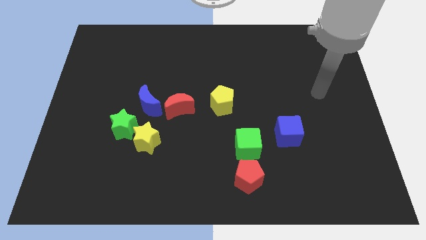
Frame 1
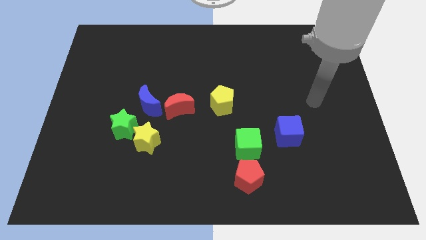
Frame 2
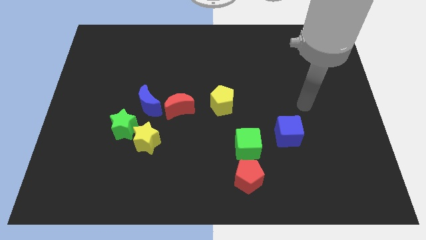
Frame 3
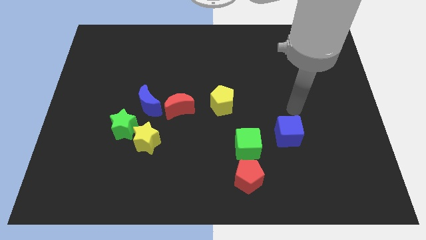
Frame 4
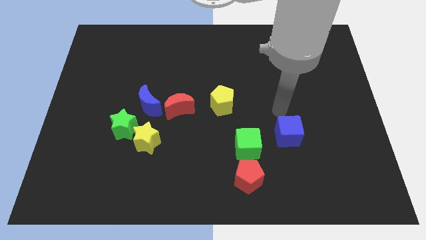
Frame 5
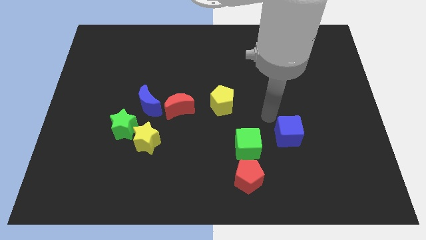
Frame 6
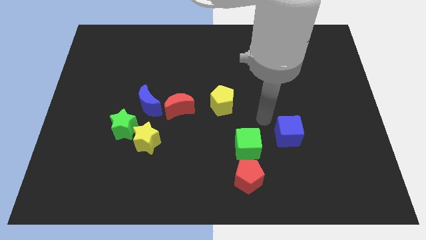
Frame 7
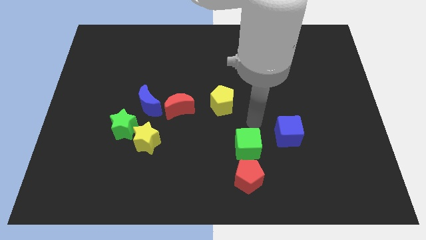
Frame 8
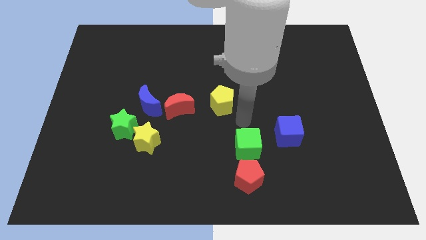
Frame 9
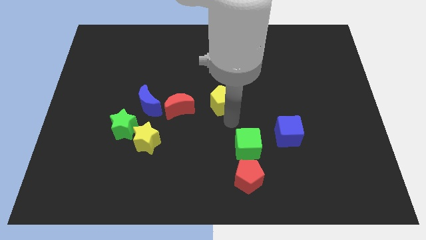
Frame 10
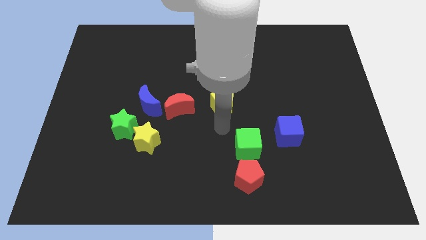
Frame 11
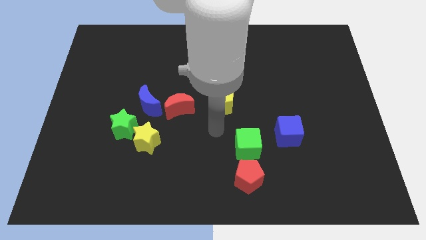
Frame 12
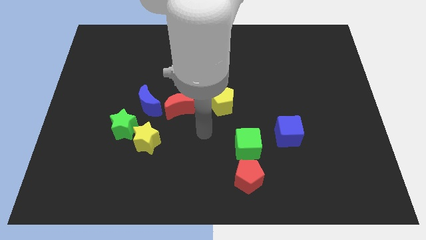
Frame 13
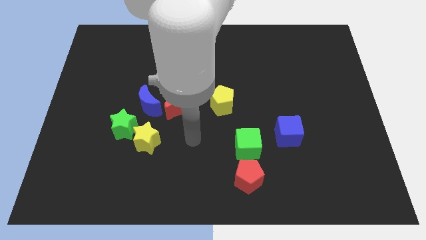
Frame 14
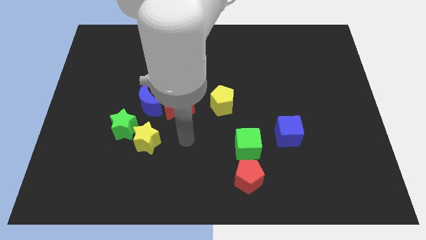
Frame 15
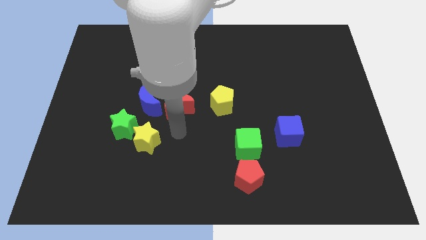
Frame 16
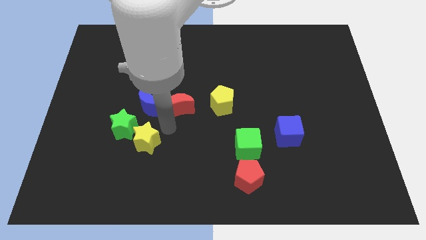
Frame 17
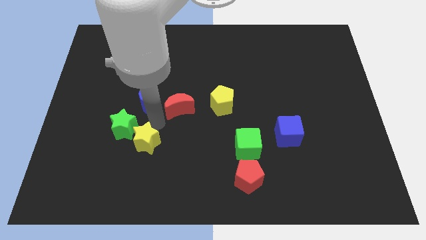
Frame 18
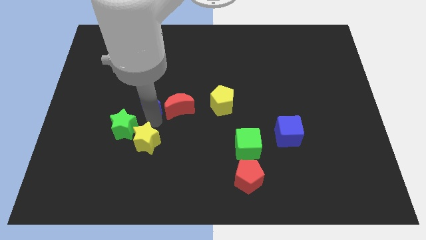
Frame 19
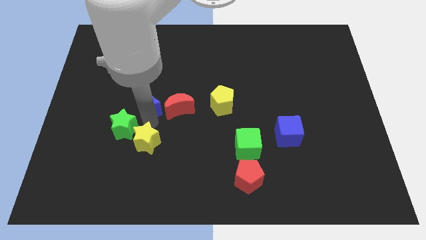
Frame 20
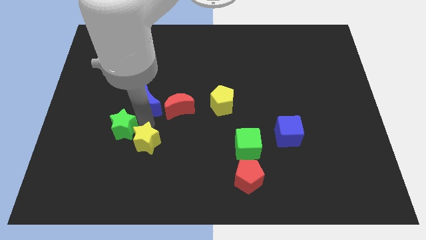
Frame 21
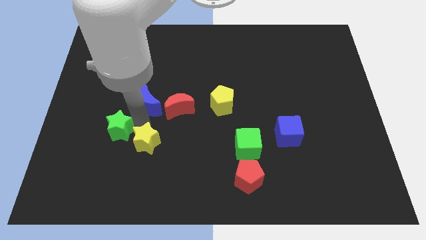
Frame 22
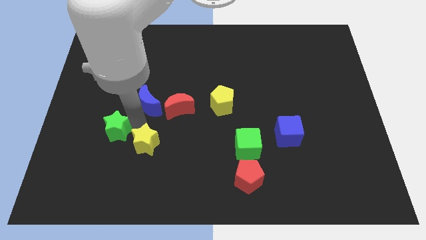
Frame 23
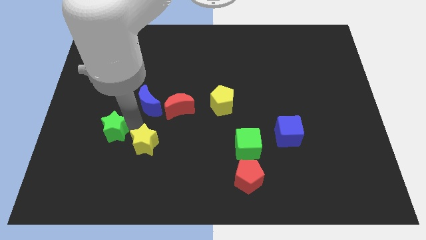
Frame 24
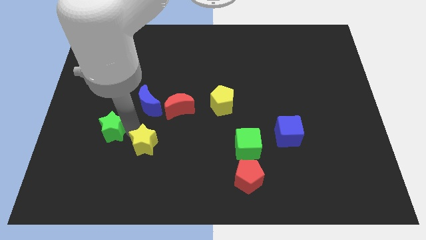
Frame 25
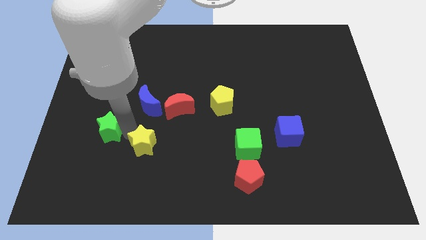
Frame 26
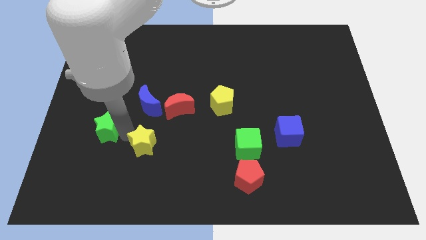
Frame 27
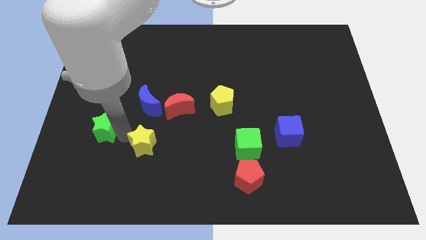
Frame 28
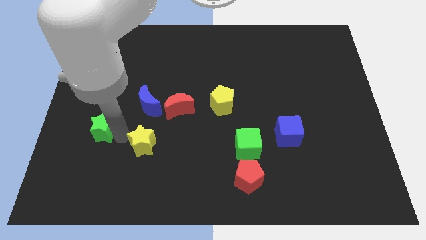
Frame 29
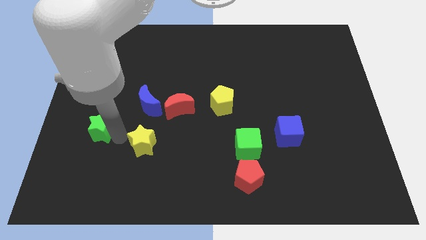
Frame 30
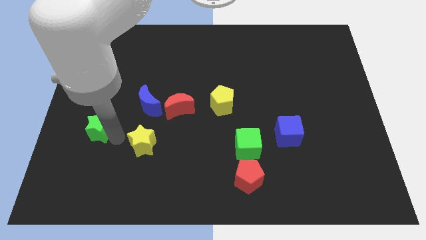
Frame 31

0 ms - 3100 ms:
pull the green star apart from the yellow star and blue moon

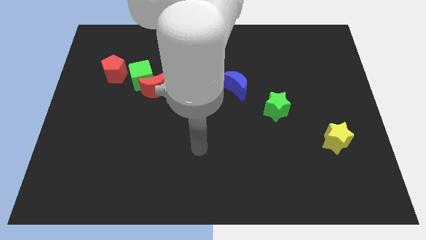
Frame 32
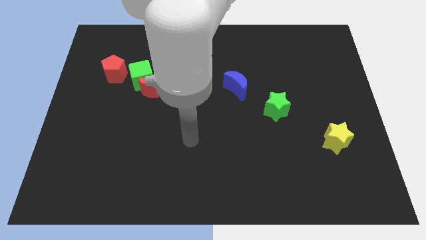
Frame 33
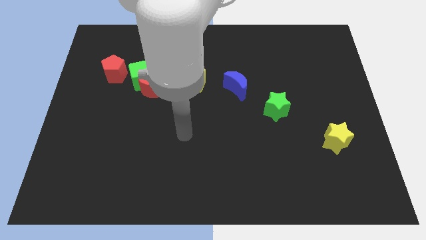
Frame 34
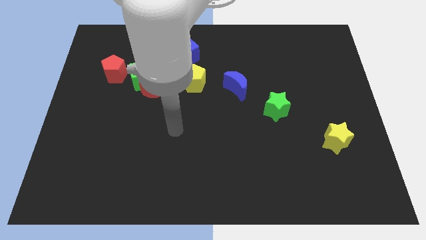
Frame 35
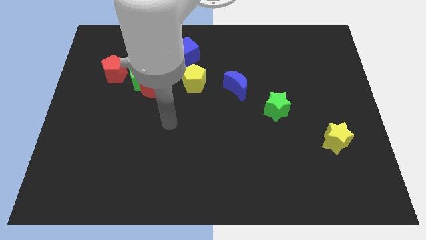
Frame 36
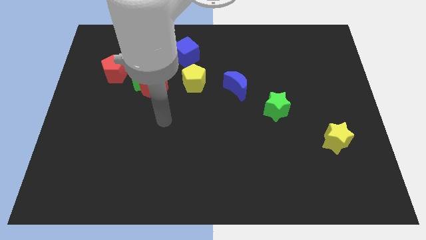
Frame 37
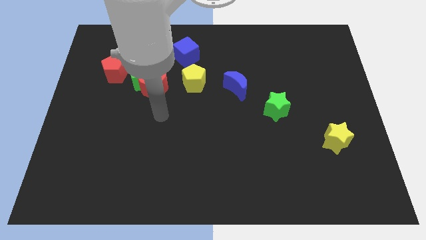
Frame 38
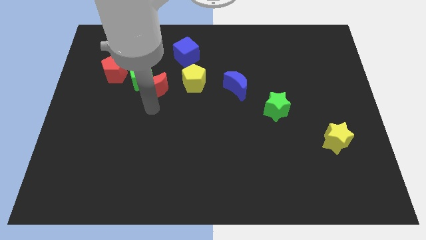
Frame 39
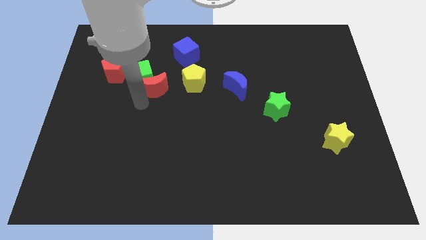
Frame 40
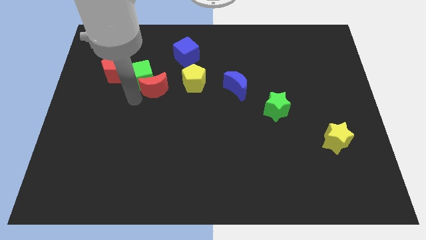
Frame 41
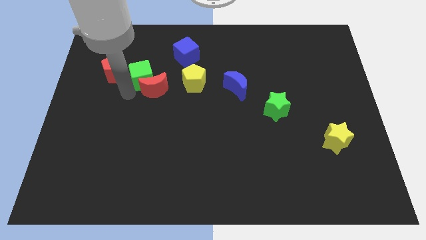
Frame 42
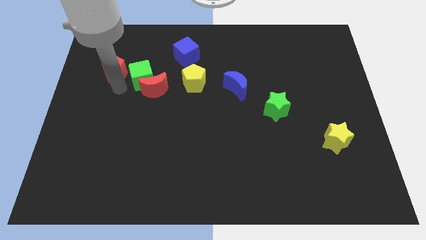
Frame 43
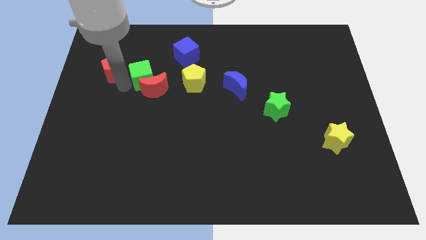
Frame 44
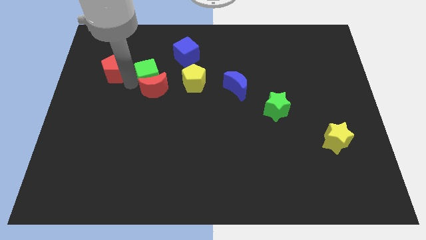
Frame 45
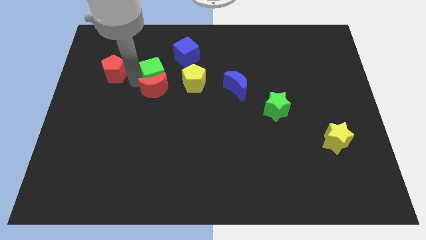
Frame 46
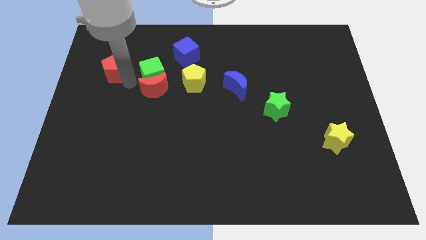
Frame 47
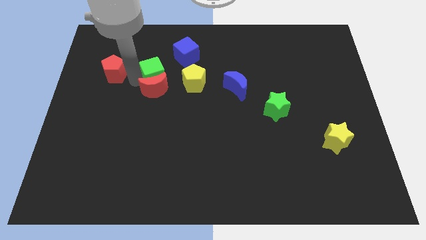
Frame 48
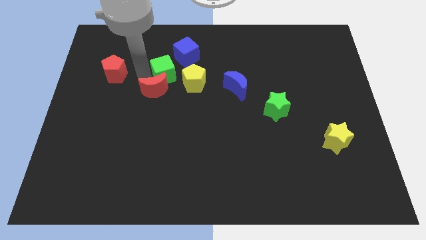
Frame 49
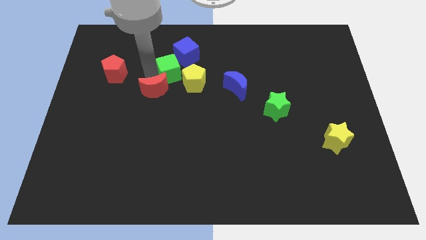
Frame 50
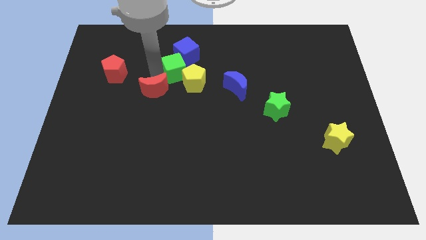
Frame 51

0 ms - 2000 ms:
separate the green cube from the red moon and red pentagon

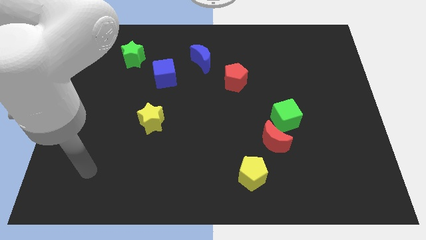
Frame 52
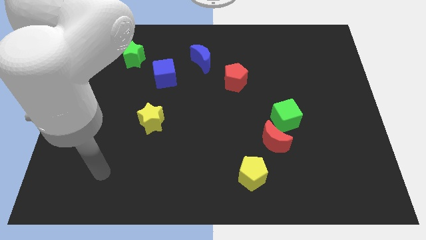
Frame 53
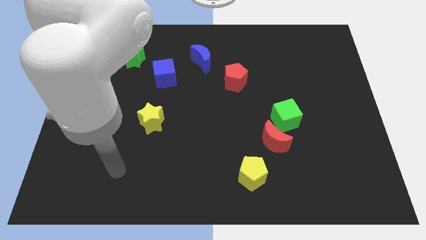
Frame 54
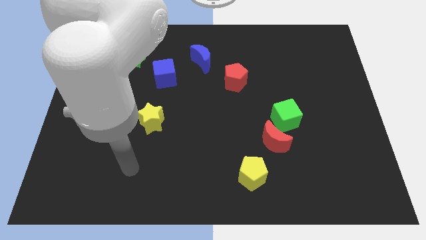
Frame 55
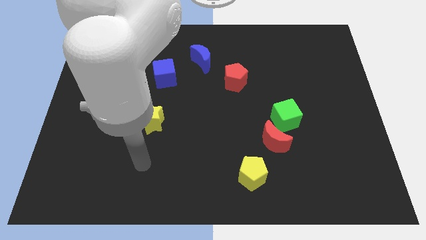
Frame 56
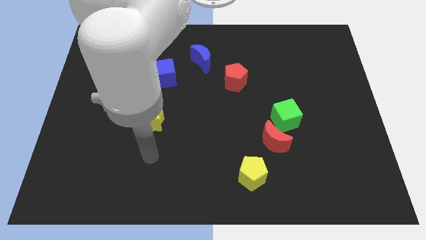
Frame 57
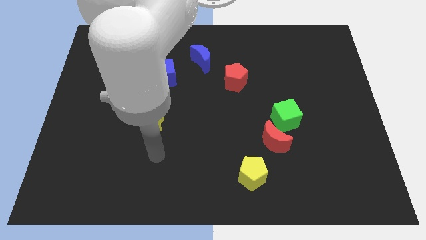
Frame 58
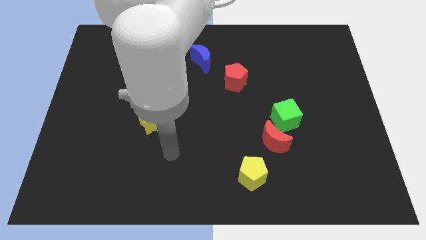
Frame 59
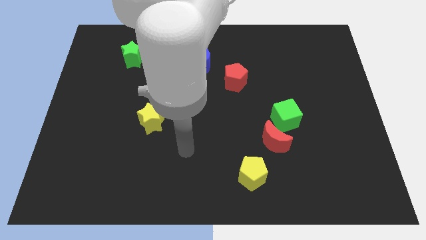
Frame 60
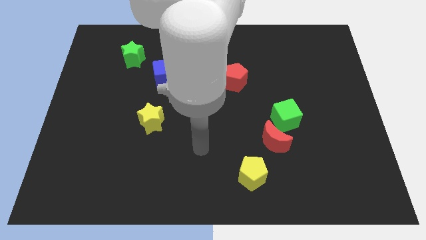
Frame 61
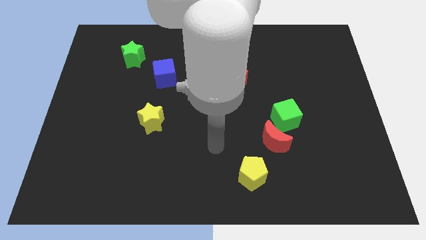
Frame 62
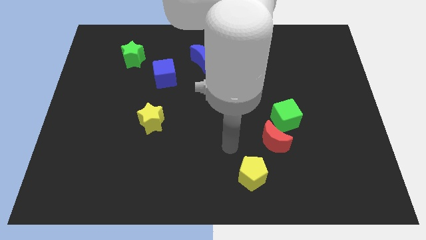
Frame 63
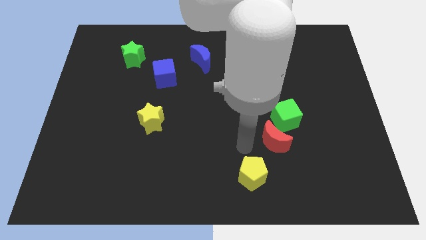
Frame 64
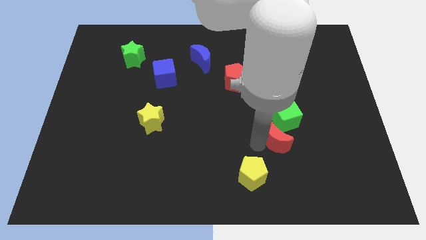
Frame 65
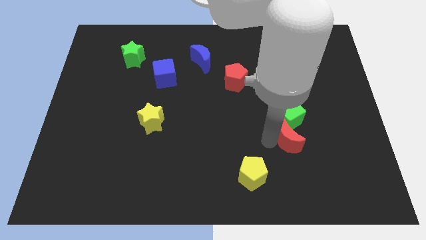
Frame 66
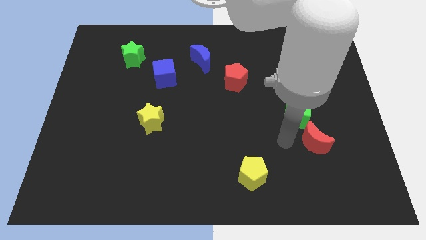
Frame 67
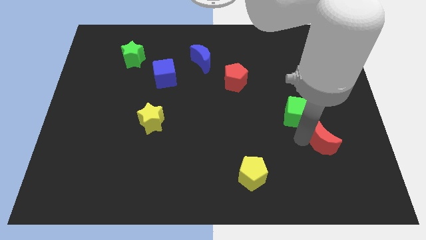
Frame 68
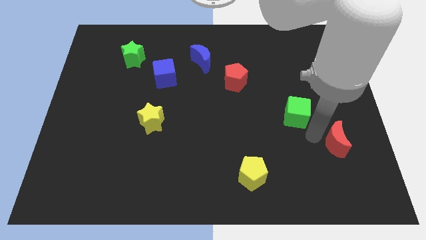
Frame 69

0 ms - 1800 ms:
separate the green cube from the red moon

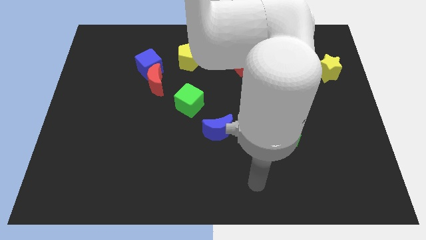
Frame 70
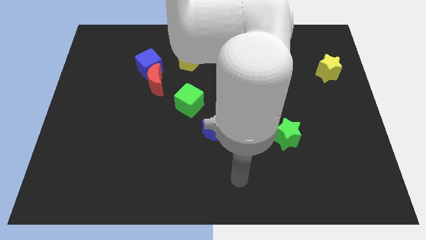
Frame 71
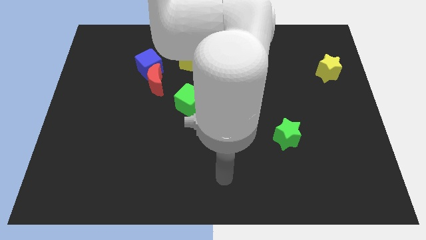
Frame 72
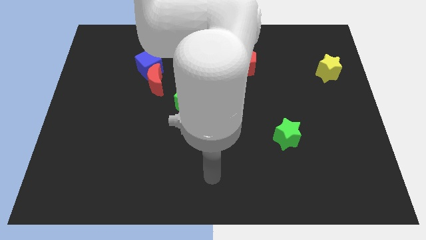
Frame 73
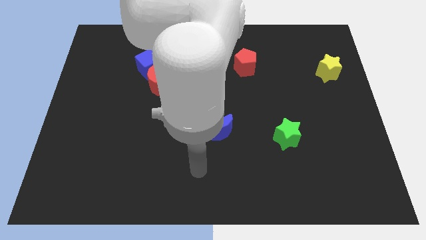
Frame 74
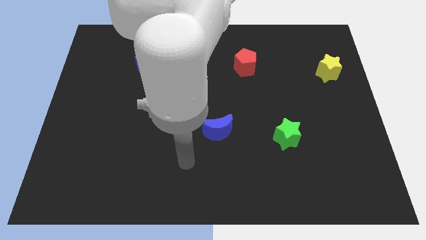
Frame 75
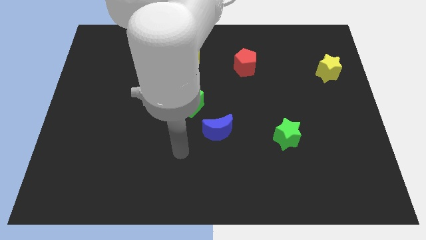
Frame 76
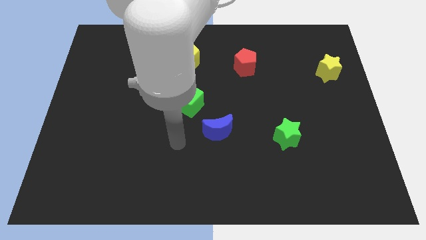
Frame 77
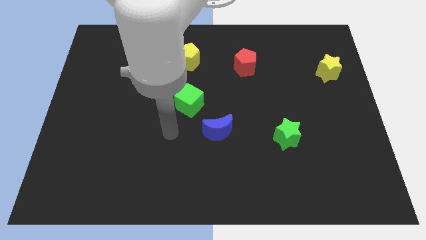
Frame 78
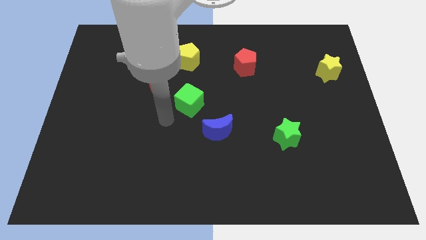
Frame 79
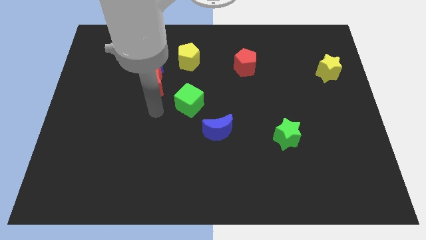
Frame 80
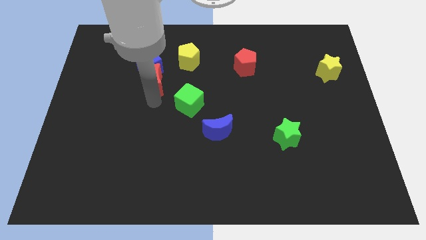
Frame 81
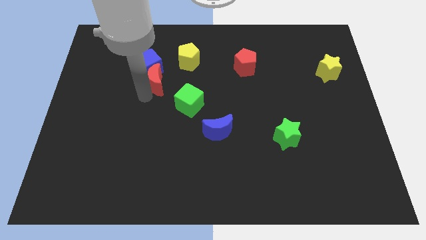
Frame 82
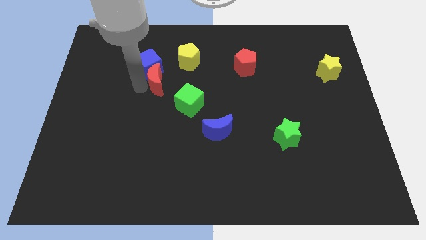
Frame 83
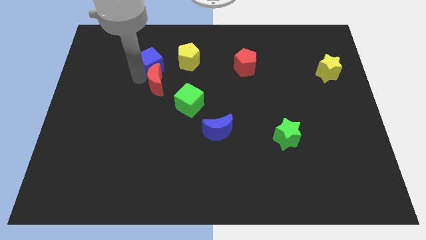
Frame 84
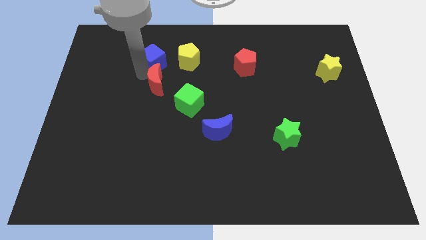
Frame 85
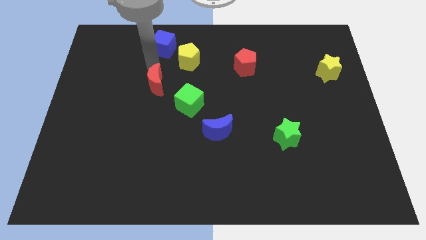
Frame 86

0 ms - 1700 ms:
separate the red moon from the blue cube

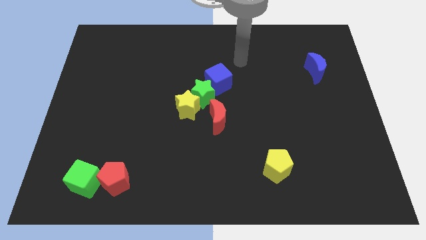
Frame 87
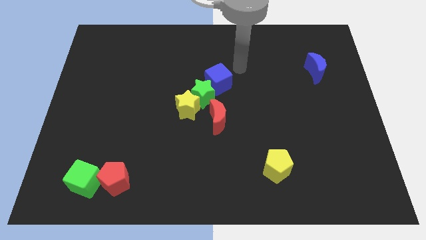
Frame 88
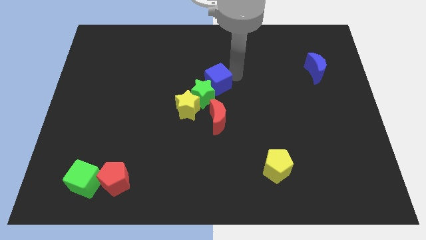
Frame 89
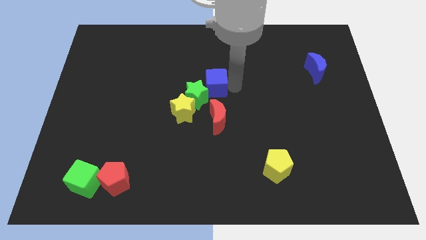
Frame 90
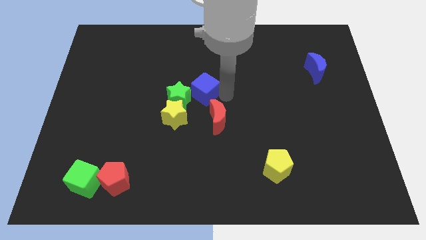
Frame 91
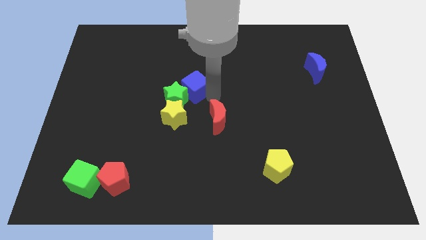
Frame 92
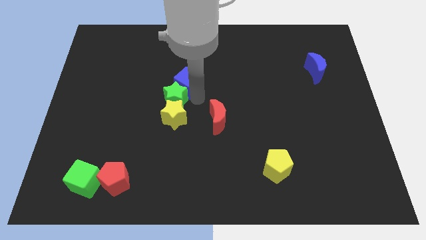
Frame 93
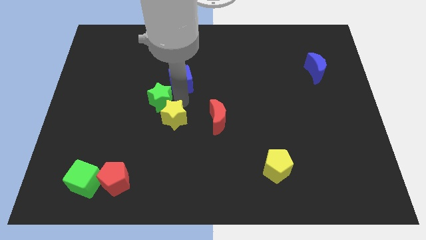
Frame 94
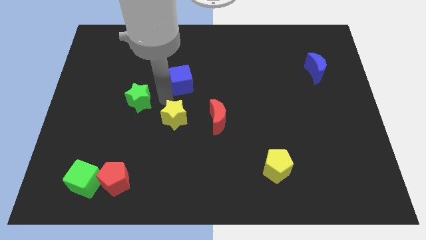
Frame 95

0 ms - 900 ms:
separate the blue cube from the green star
